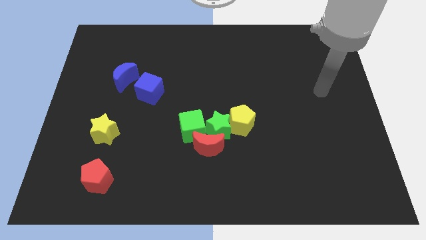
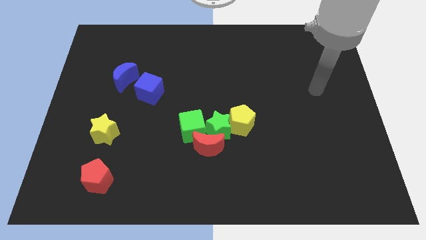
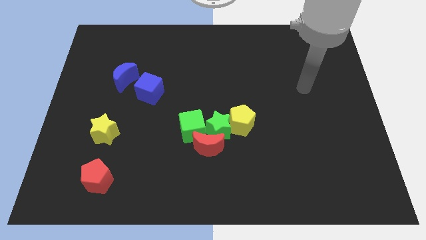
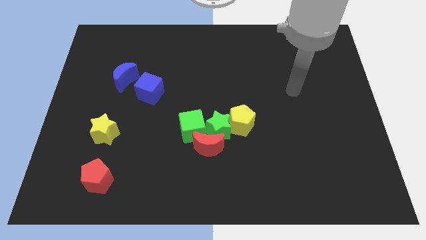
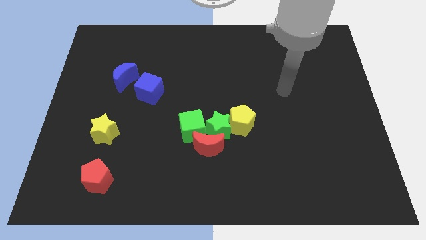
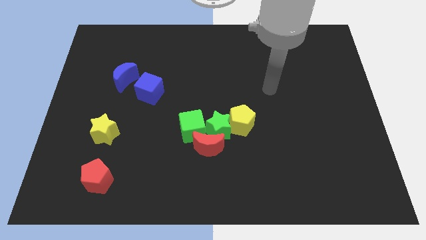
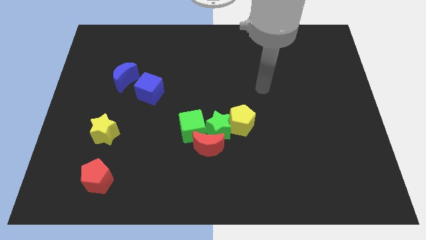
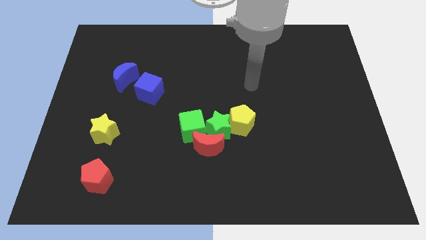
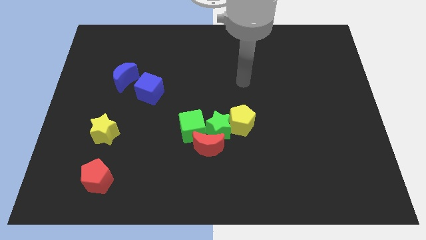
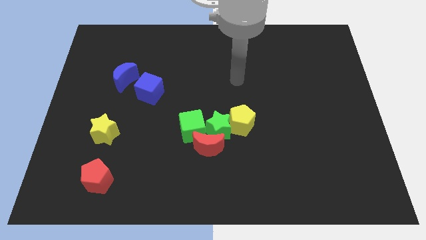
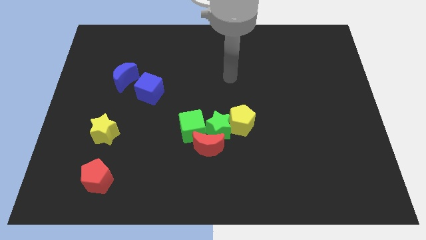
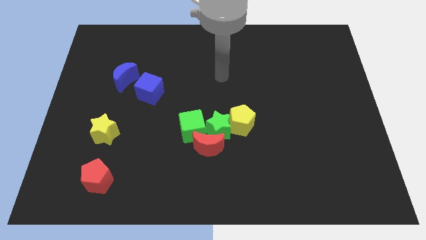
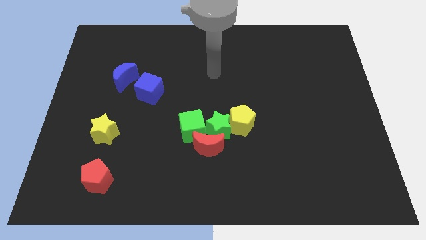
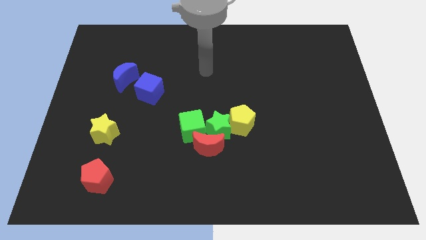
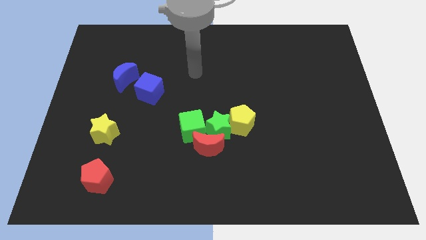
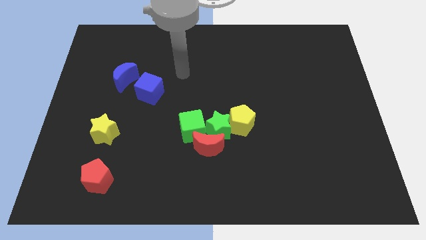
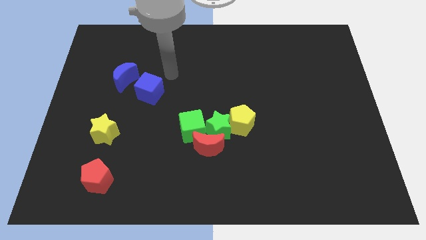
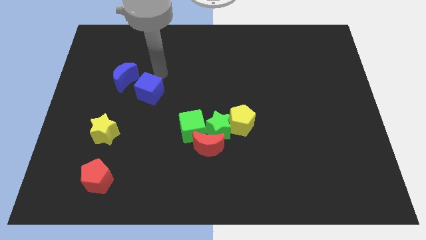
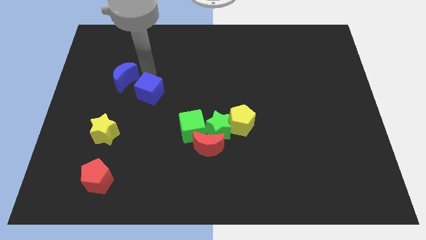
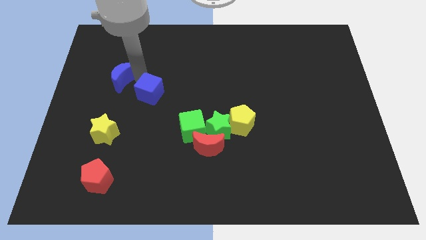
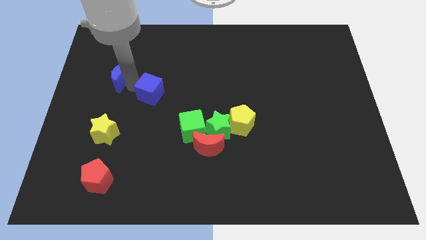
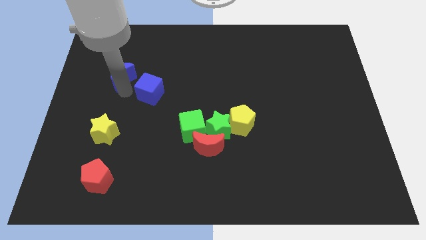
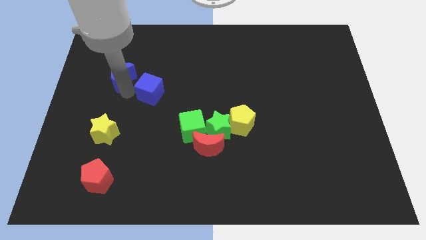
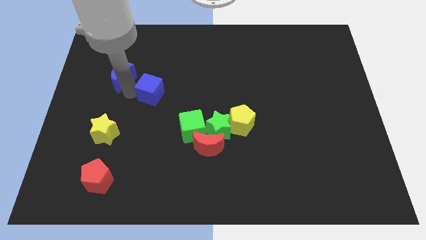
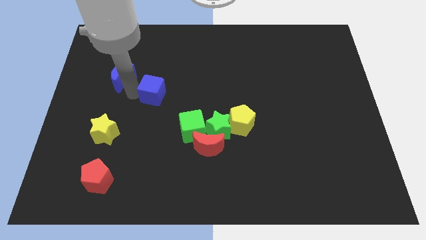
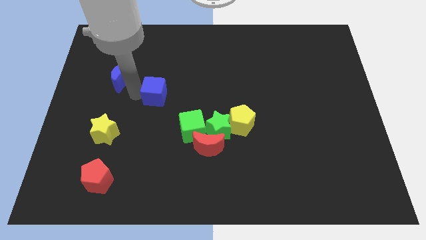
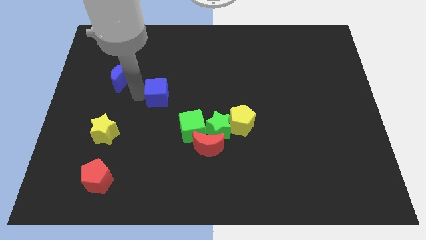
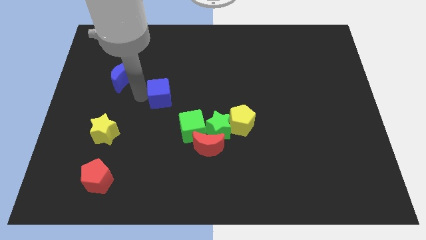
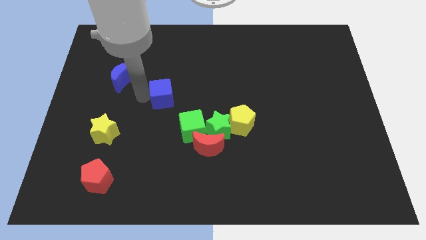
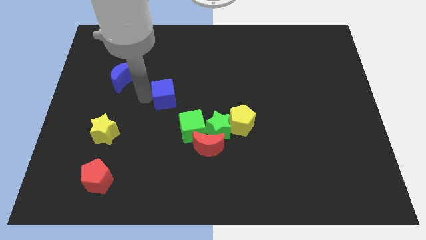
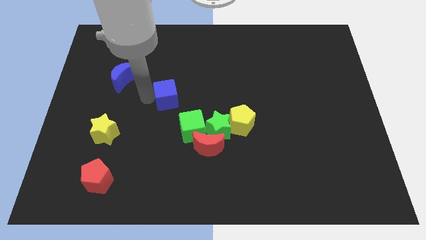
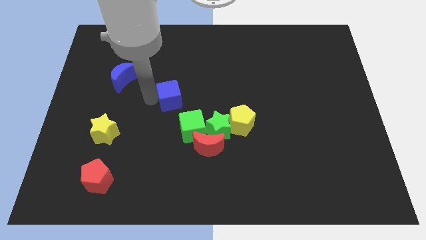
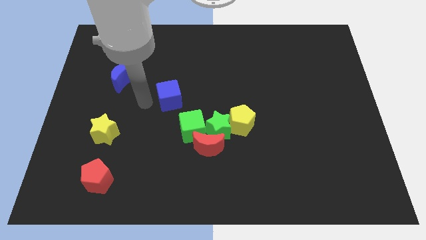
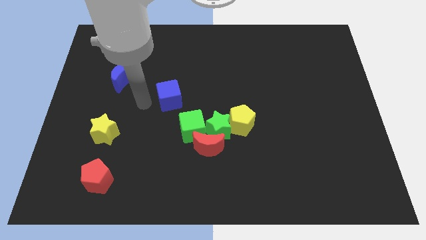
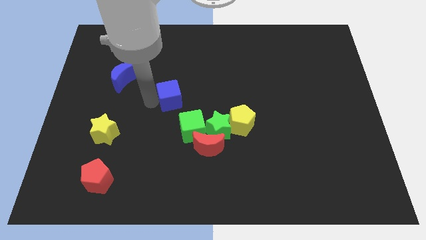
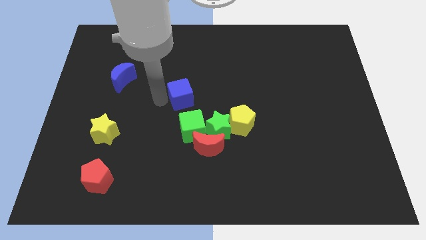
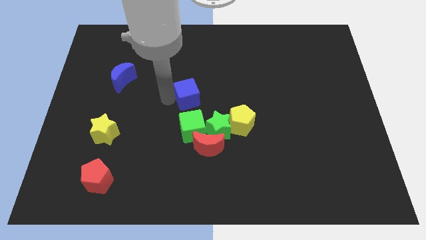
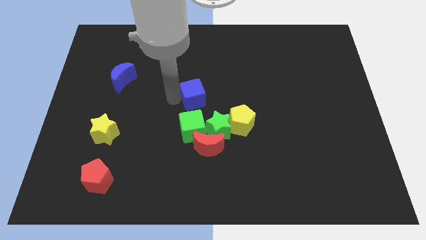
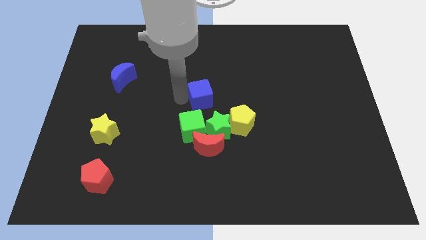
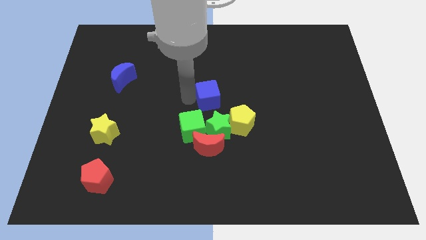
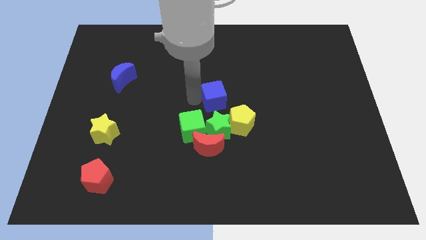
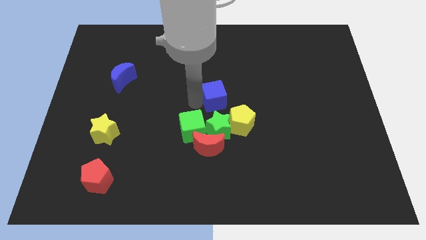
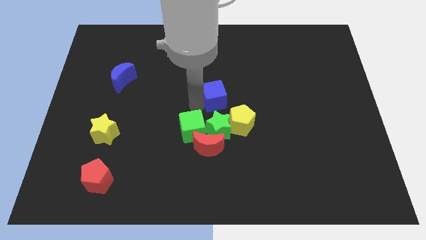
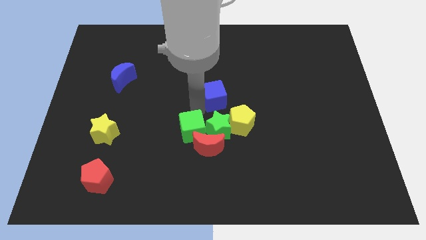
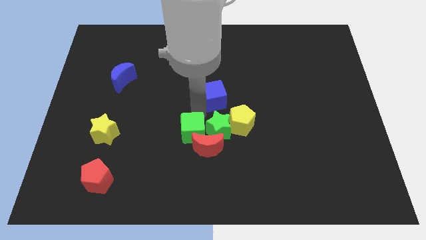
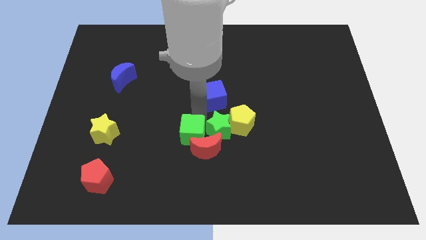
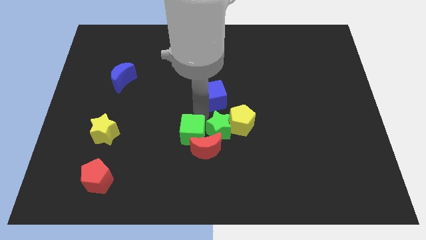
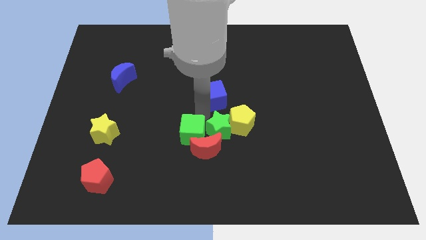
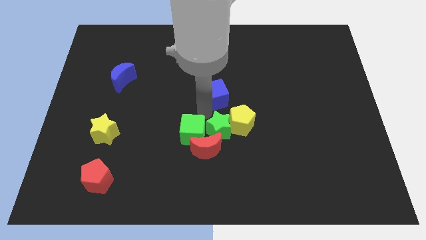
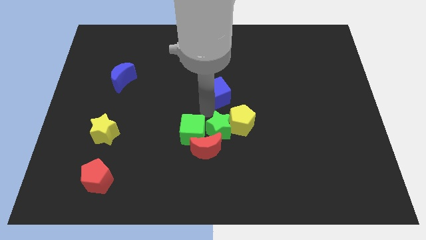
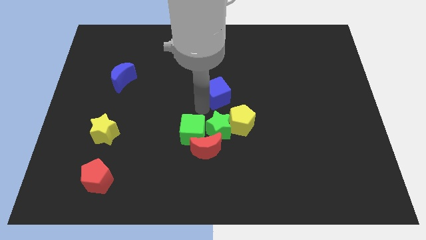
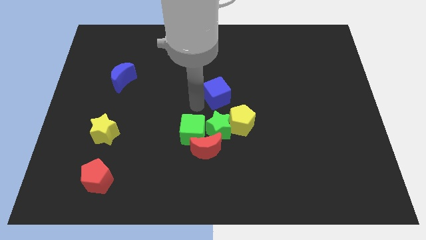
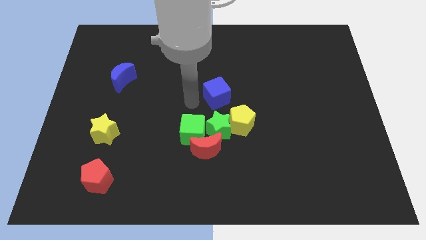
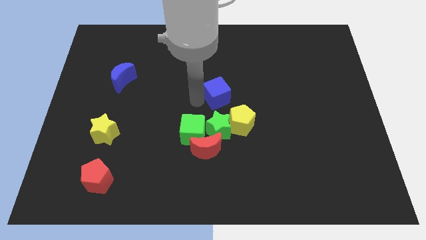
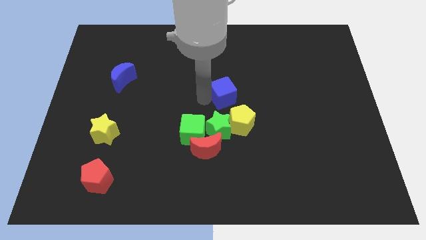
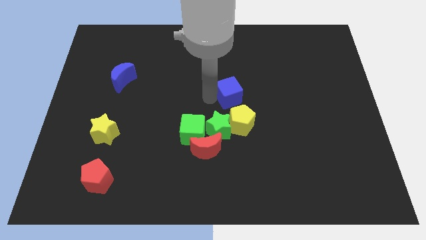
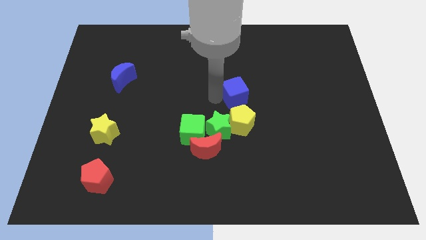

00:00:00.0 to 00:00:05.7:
slide the blue cube to the right
